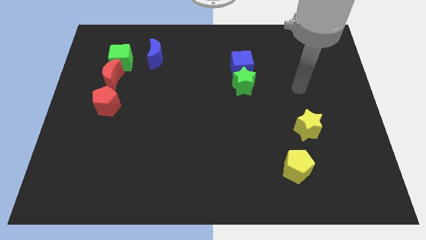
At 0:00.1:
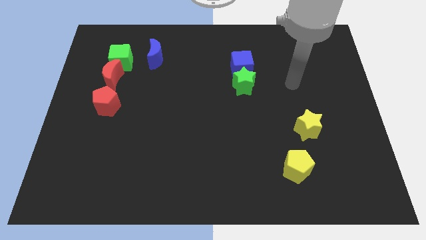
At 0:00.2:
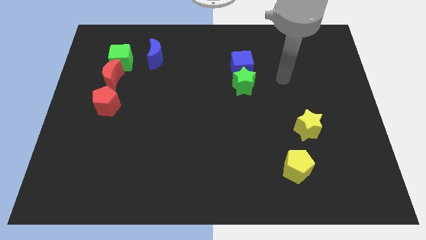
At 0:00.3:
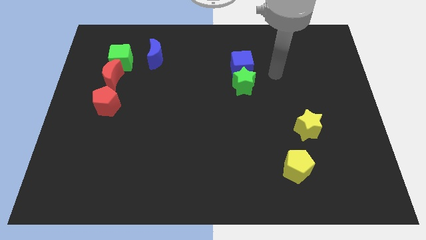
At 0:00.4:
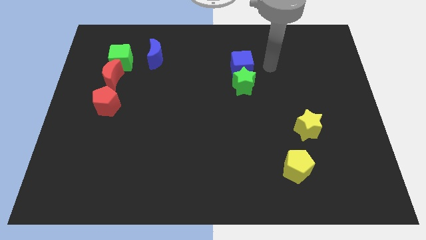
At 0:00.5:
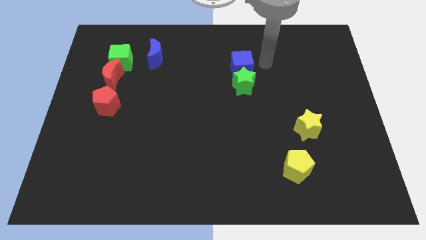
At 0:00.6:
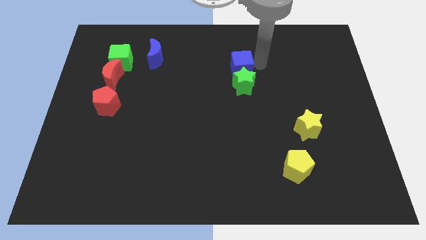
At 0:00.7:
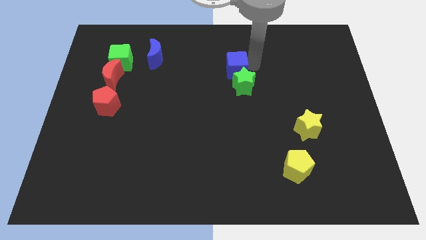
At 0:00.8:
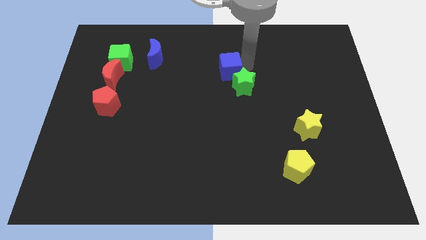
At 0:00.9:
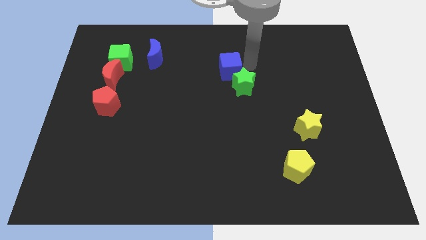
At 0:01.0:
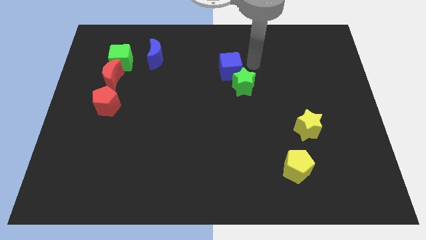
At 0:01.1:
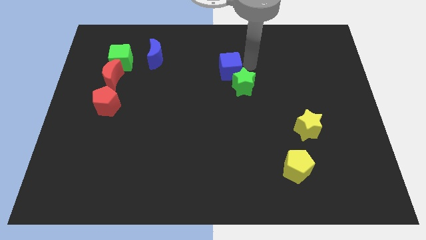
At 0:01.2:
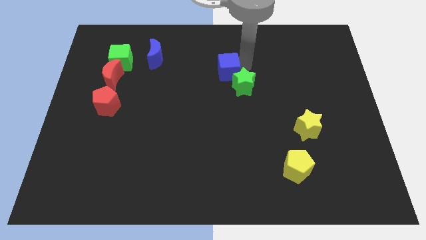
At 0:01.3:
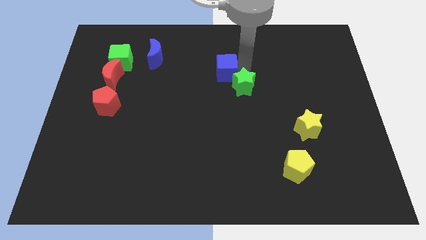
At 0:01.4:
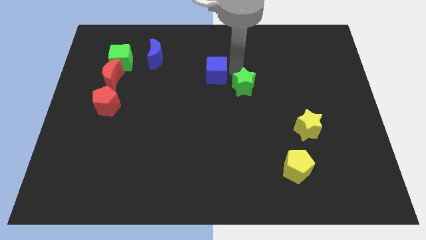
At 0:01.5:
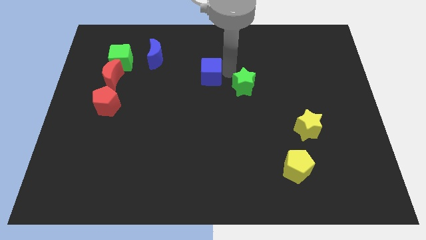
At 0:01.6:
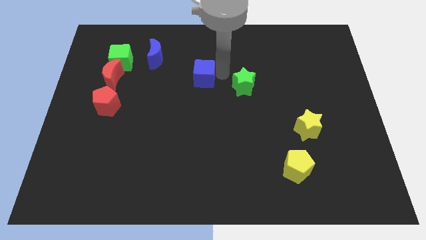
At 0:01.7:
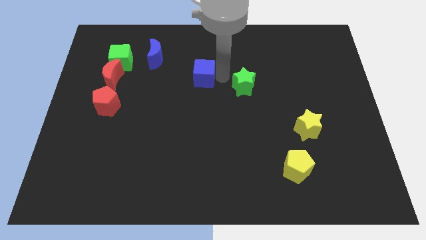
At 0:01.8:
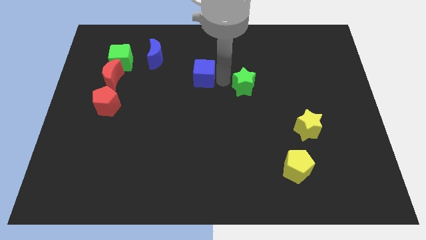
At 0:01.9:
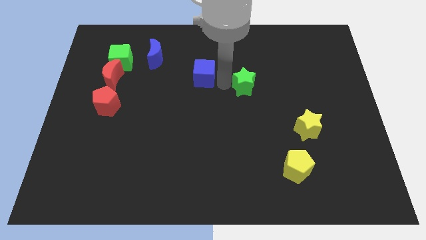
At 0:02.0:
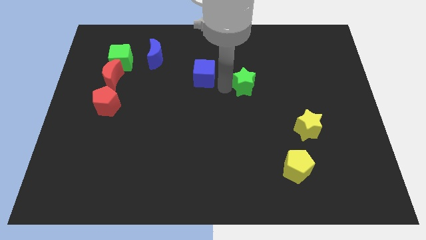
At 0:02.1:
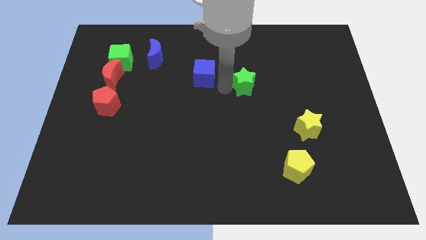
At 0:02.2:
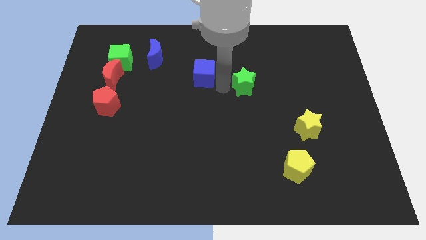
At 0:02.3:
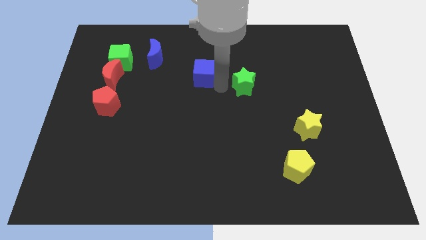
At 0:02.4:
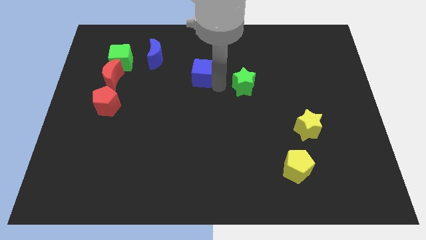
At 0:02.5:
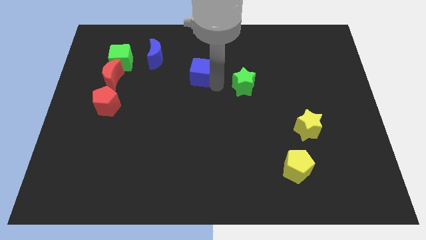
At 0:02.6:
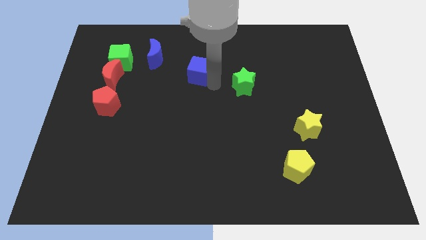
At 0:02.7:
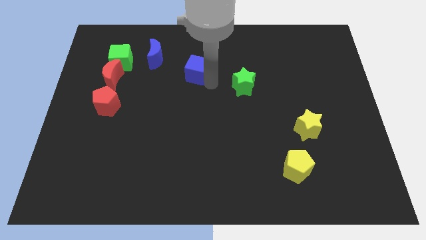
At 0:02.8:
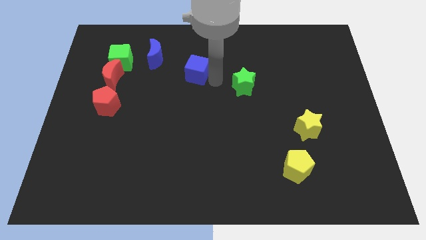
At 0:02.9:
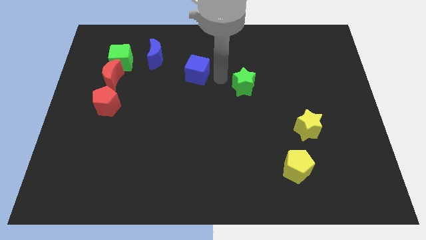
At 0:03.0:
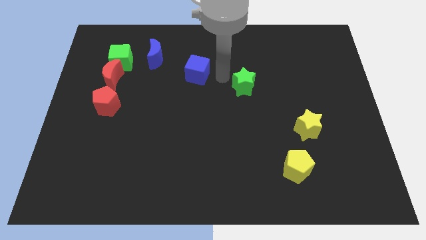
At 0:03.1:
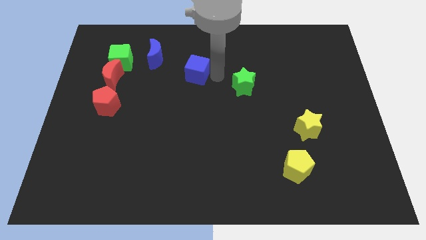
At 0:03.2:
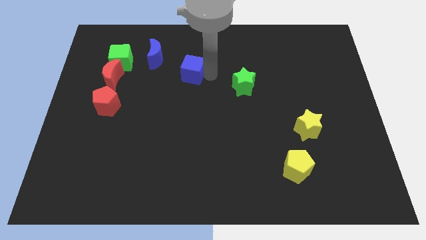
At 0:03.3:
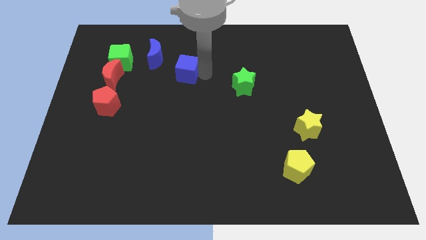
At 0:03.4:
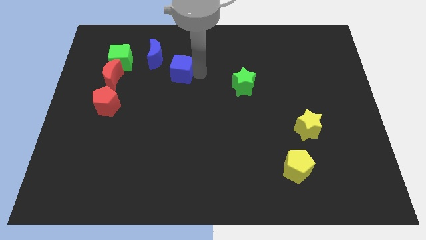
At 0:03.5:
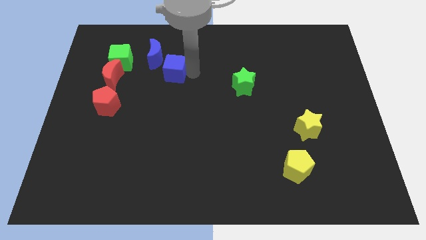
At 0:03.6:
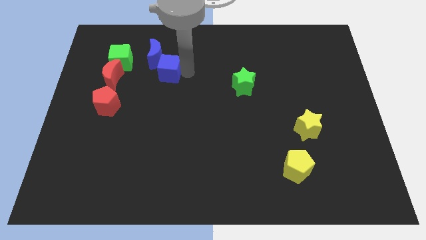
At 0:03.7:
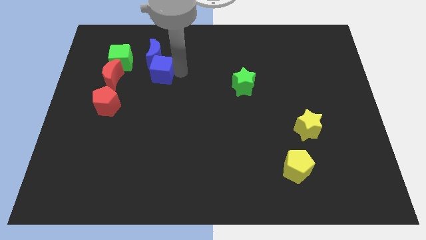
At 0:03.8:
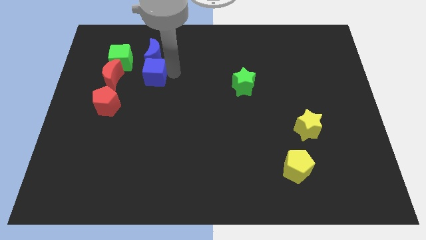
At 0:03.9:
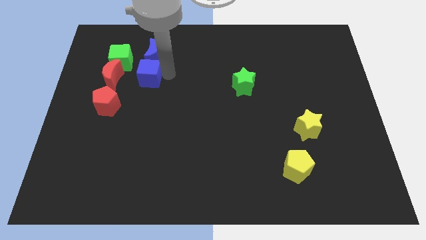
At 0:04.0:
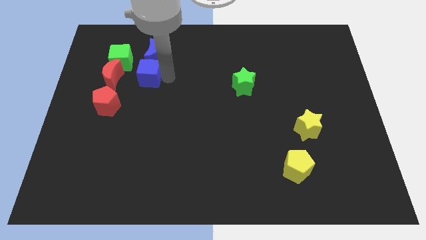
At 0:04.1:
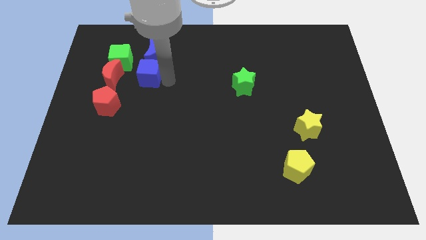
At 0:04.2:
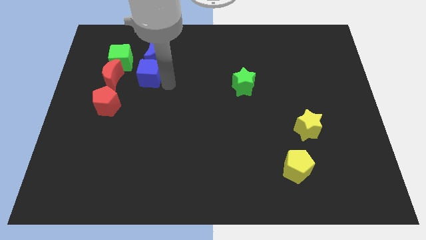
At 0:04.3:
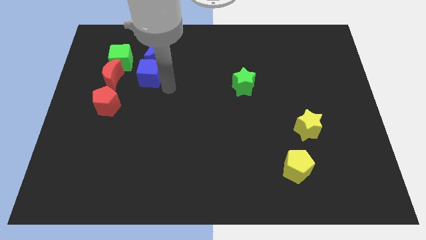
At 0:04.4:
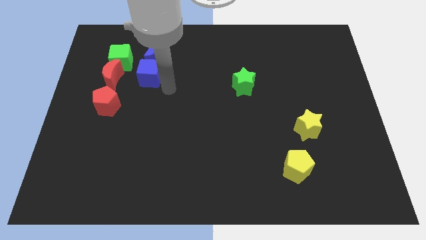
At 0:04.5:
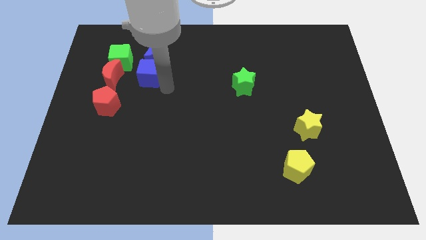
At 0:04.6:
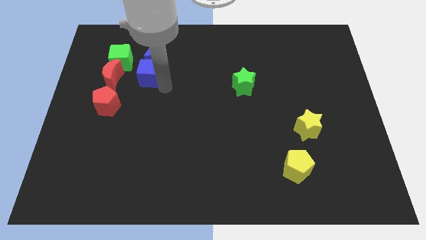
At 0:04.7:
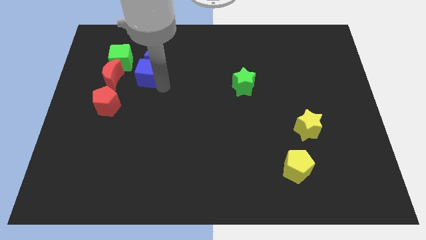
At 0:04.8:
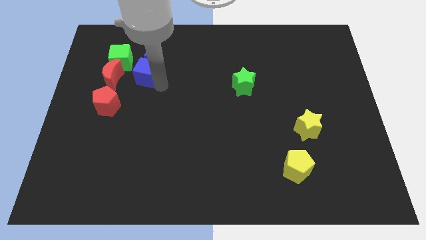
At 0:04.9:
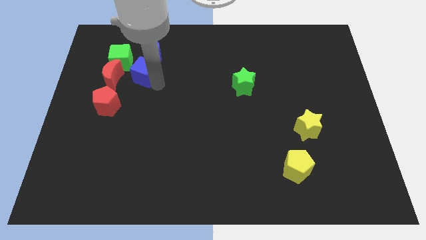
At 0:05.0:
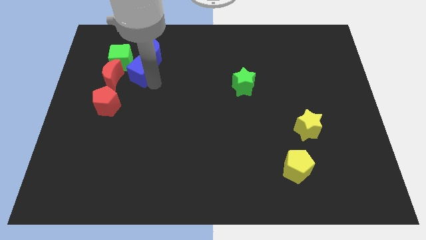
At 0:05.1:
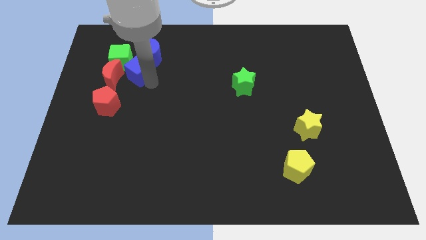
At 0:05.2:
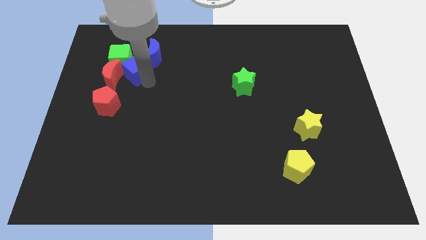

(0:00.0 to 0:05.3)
slide the blue cube next to the green cube

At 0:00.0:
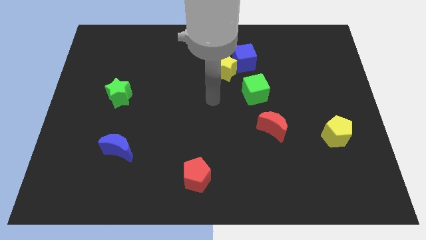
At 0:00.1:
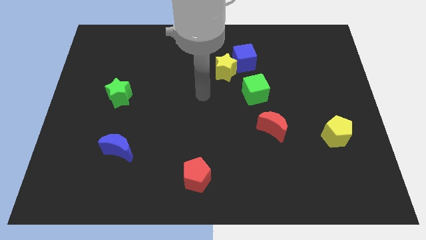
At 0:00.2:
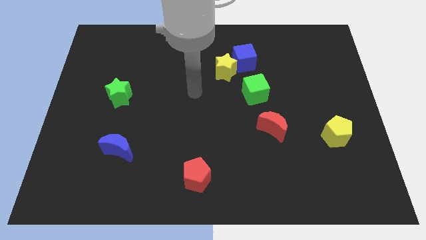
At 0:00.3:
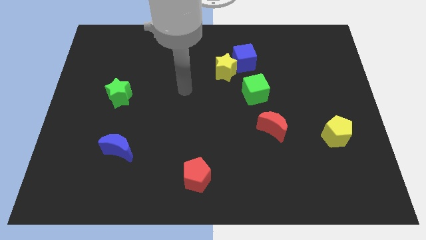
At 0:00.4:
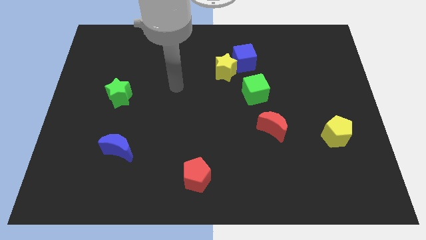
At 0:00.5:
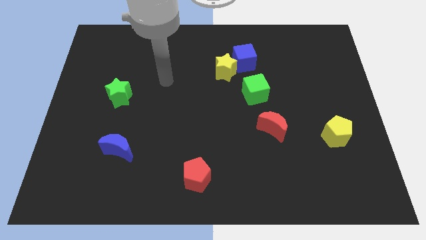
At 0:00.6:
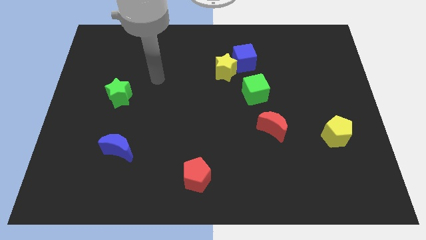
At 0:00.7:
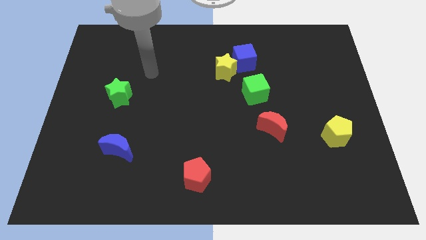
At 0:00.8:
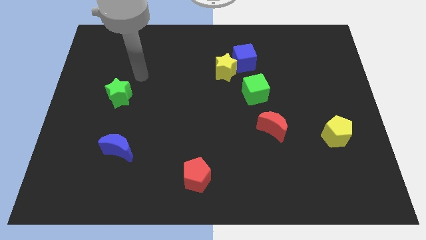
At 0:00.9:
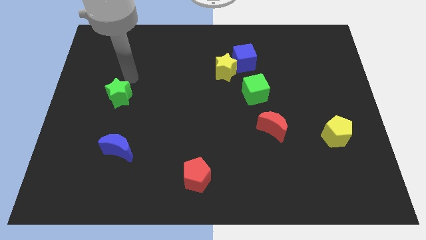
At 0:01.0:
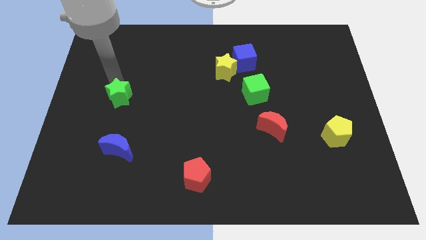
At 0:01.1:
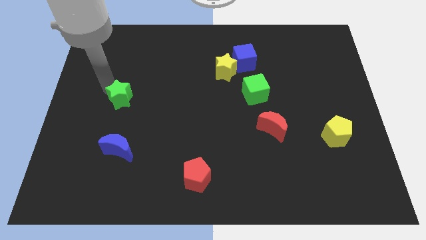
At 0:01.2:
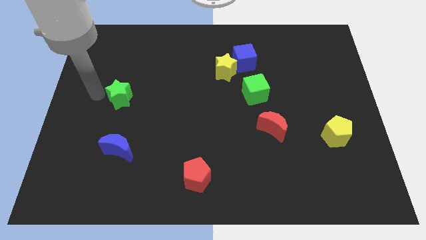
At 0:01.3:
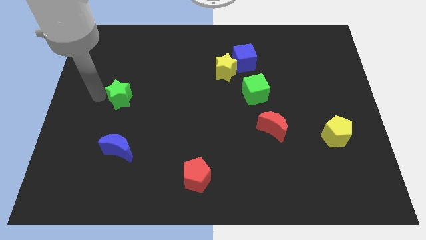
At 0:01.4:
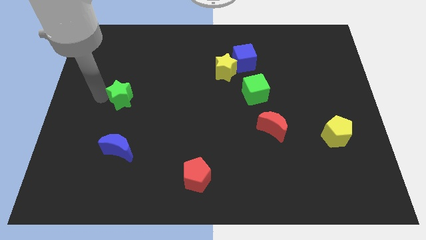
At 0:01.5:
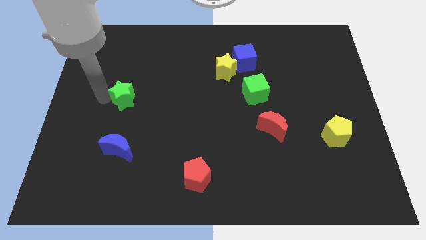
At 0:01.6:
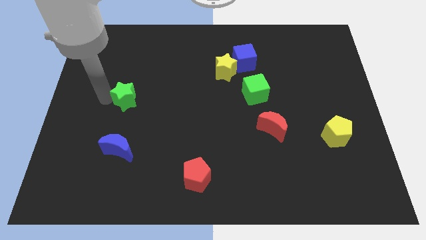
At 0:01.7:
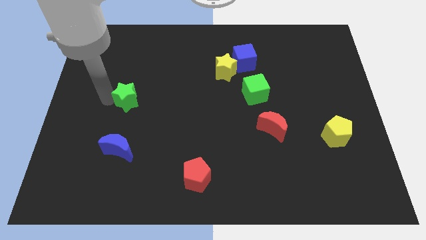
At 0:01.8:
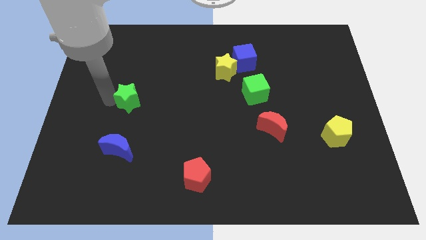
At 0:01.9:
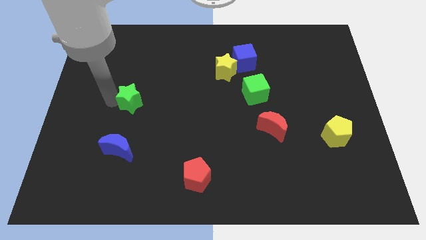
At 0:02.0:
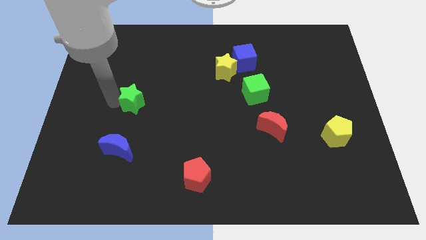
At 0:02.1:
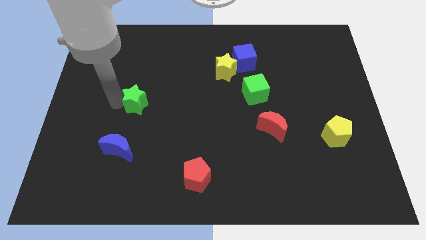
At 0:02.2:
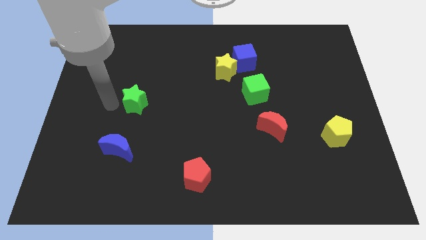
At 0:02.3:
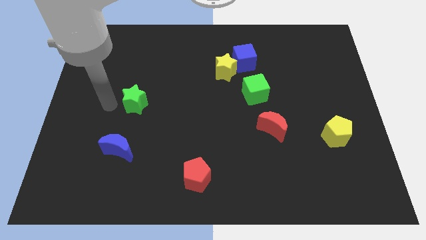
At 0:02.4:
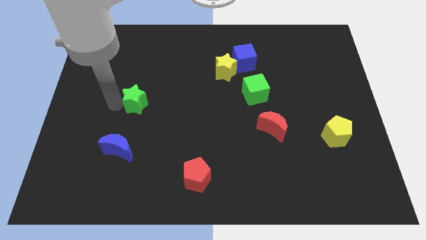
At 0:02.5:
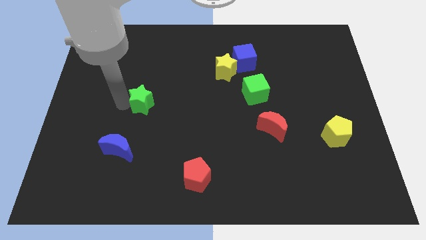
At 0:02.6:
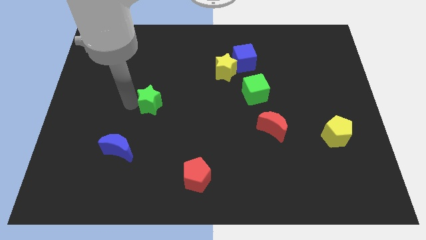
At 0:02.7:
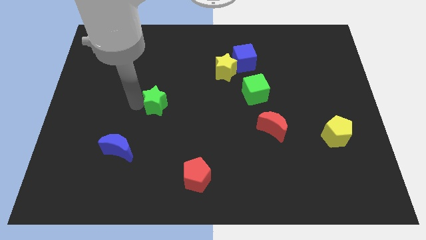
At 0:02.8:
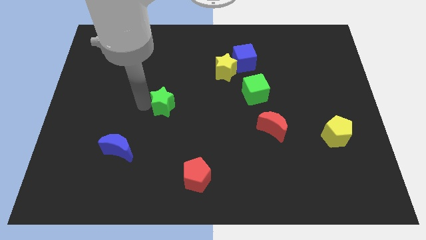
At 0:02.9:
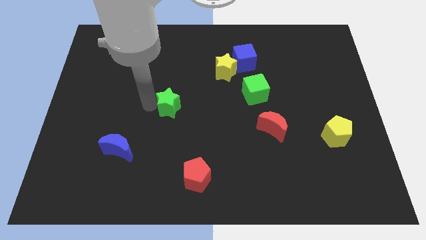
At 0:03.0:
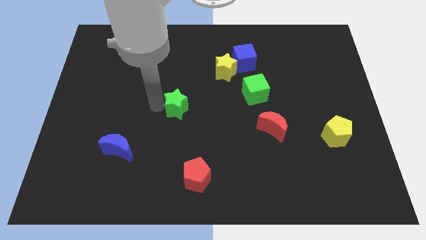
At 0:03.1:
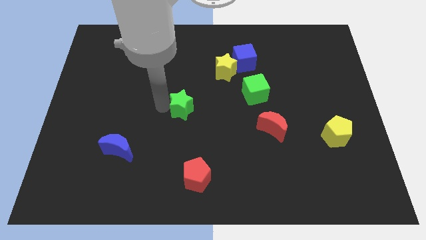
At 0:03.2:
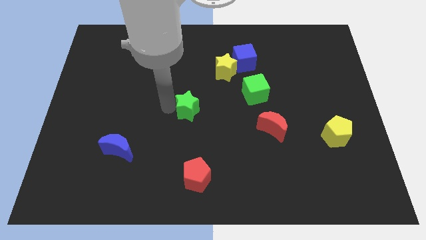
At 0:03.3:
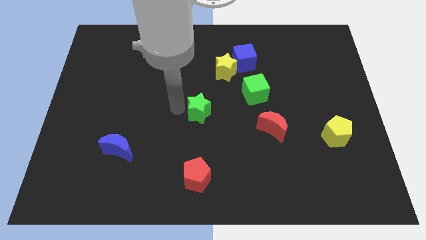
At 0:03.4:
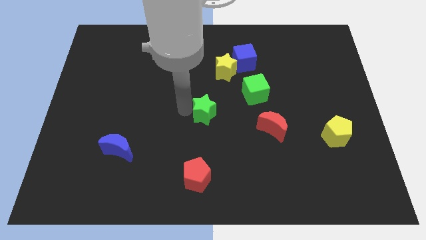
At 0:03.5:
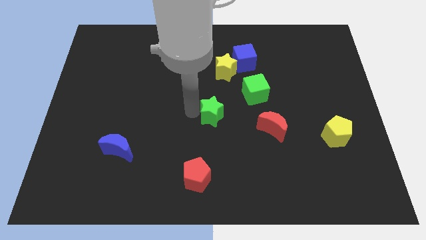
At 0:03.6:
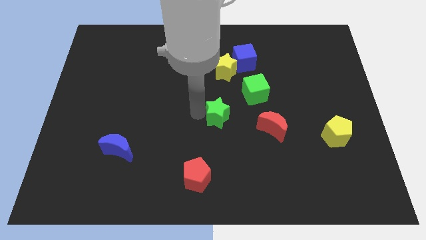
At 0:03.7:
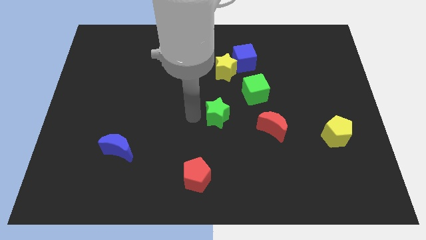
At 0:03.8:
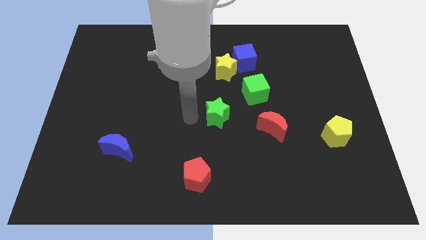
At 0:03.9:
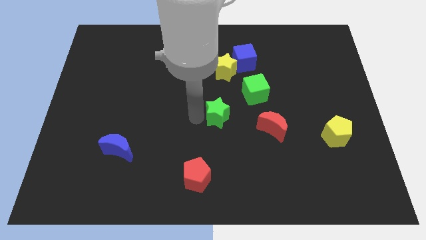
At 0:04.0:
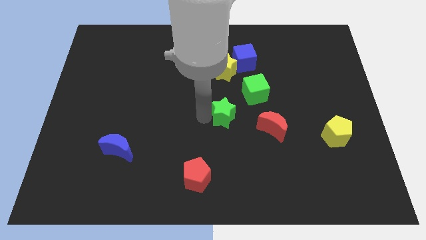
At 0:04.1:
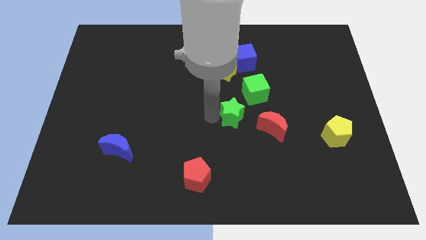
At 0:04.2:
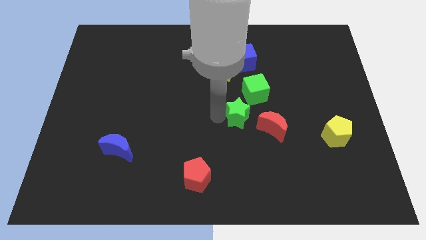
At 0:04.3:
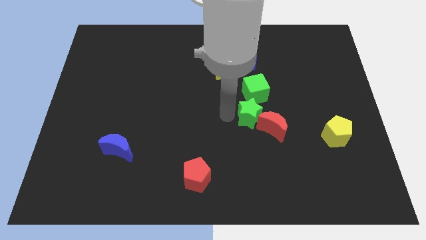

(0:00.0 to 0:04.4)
slide the green star to the red moon
